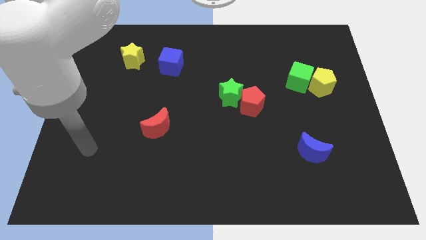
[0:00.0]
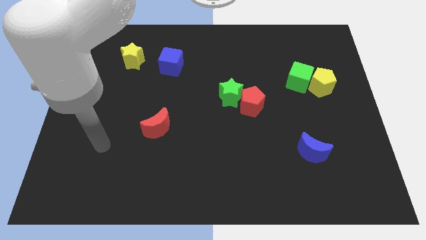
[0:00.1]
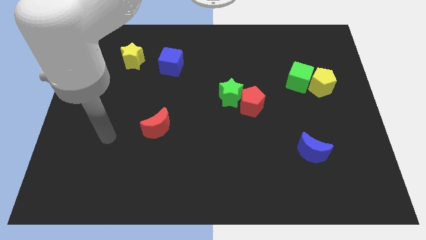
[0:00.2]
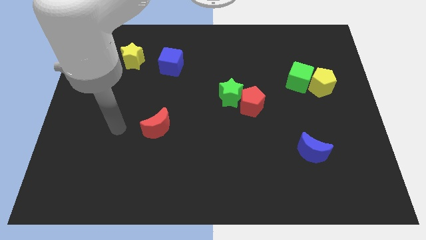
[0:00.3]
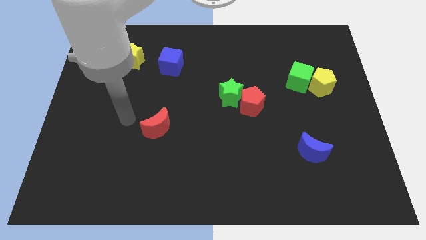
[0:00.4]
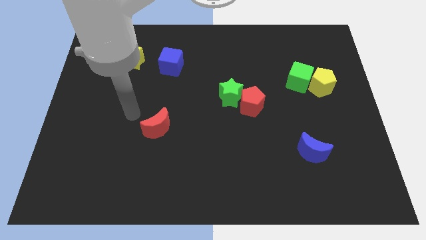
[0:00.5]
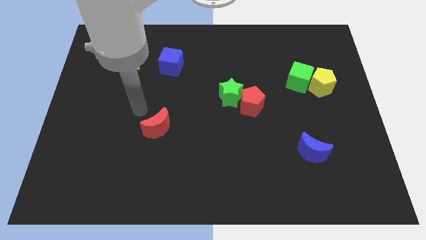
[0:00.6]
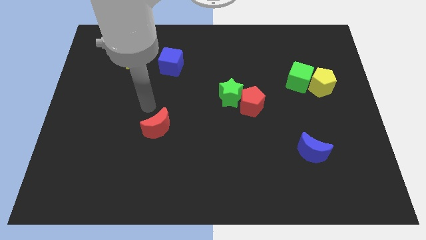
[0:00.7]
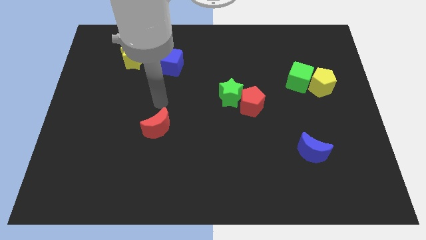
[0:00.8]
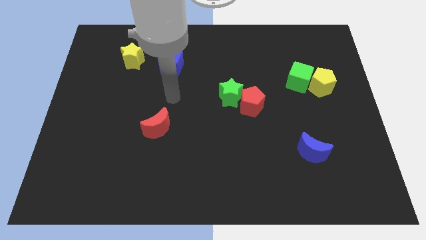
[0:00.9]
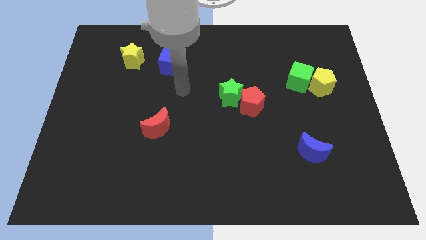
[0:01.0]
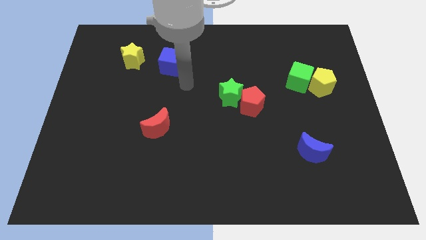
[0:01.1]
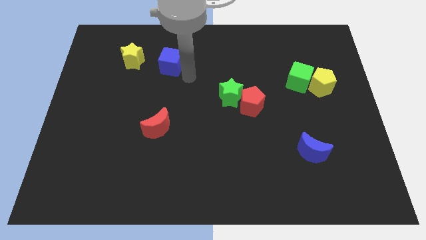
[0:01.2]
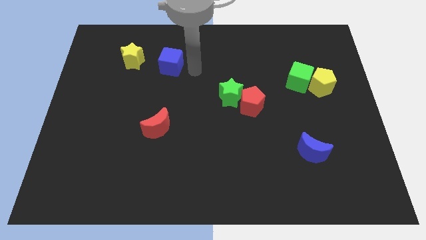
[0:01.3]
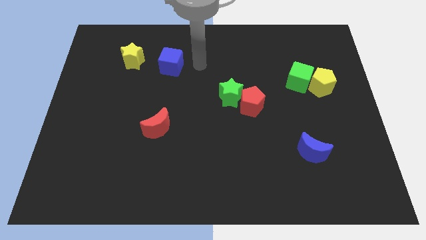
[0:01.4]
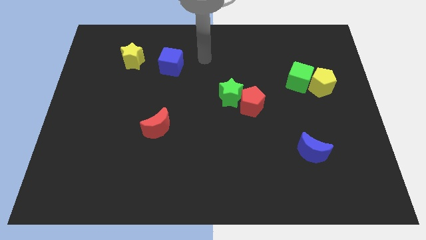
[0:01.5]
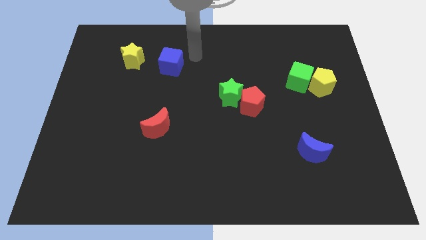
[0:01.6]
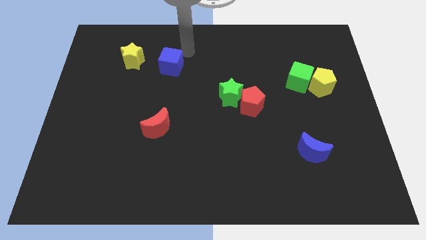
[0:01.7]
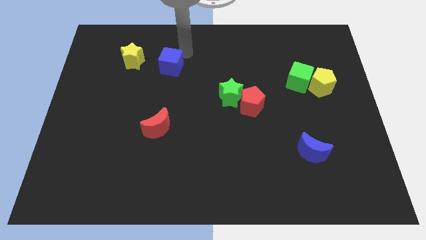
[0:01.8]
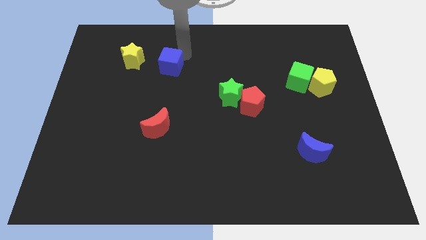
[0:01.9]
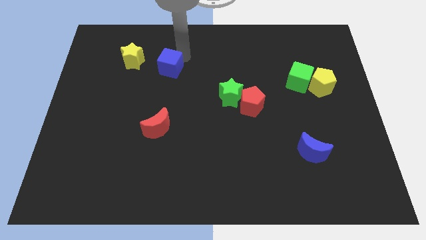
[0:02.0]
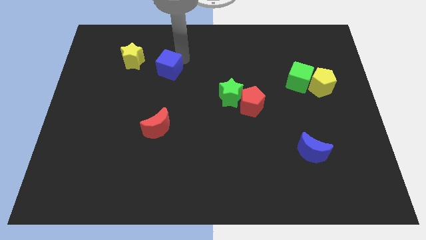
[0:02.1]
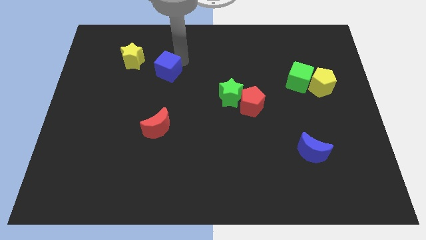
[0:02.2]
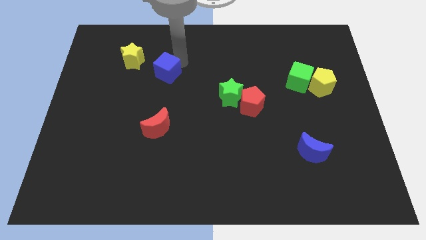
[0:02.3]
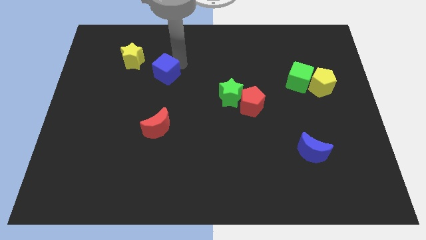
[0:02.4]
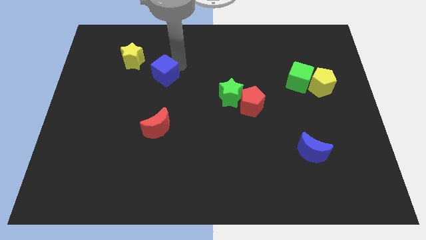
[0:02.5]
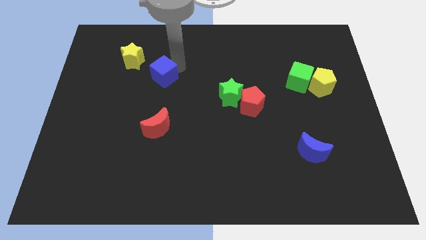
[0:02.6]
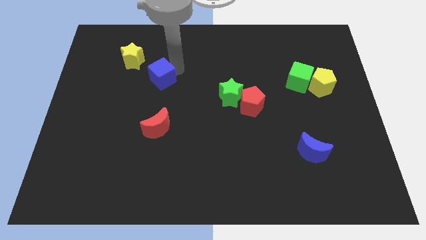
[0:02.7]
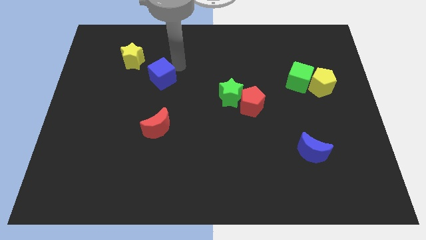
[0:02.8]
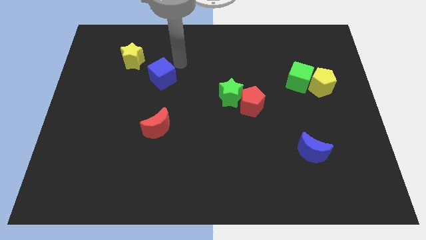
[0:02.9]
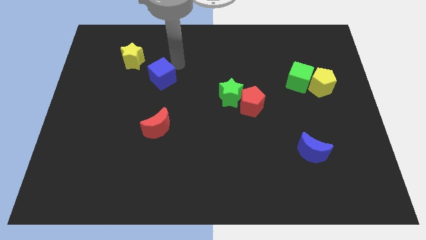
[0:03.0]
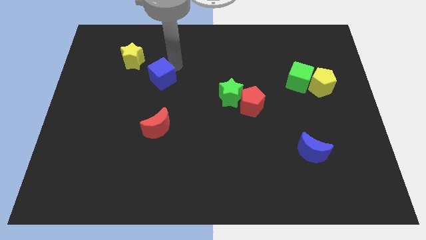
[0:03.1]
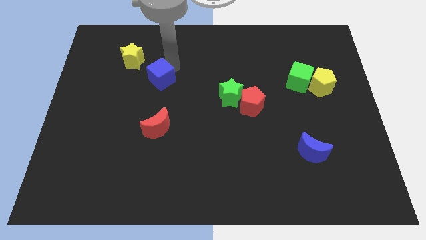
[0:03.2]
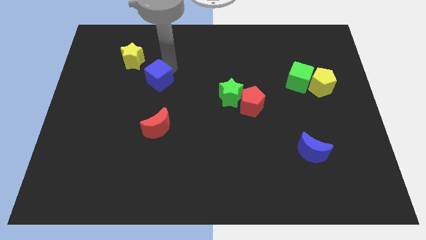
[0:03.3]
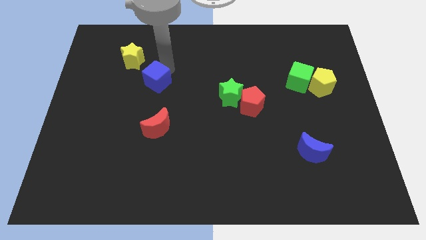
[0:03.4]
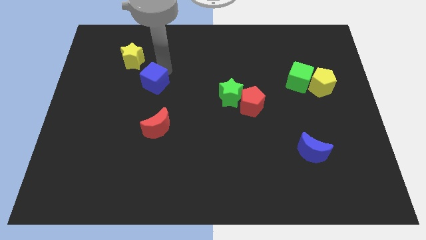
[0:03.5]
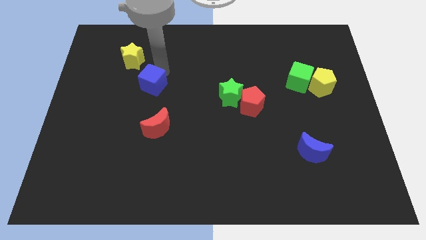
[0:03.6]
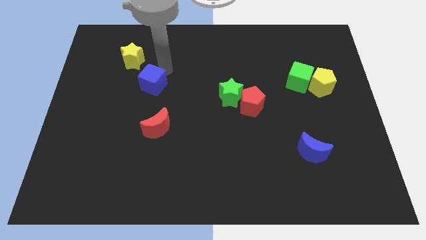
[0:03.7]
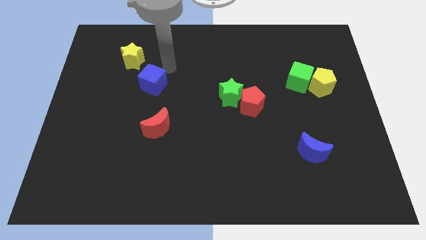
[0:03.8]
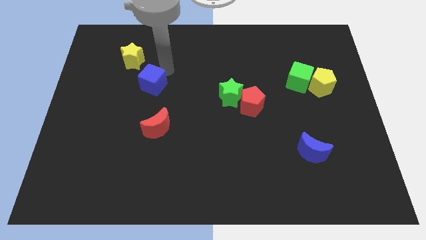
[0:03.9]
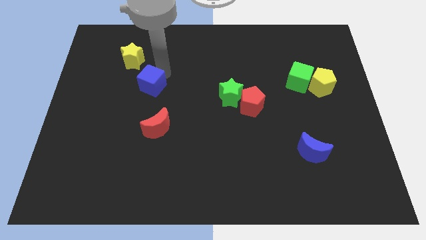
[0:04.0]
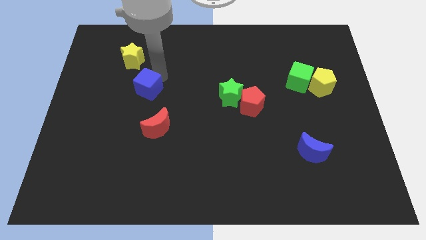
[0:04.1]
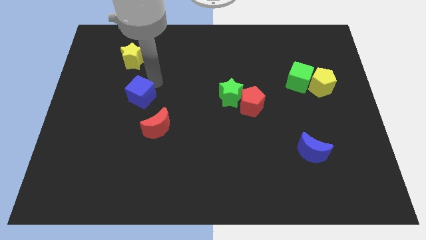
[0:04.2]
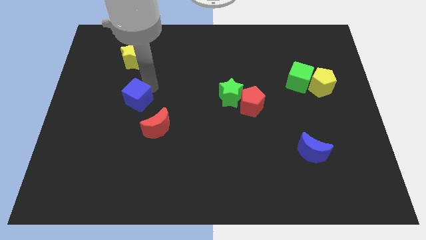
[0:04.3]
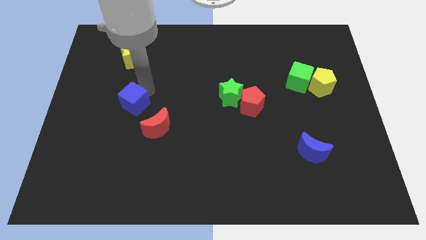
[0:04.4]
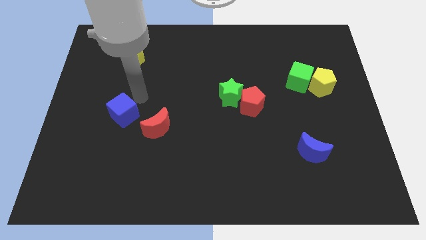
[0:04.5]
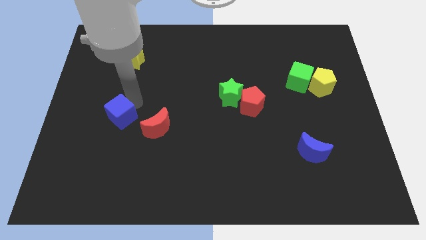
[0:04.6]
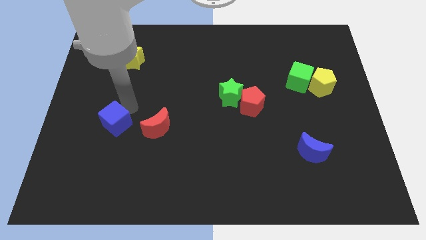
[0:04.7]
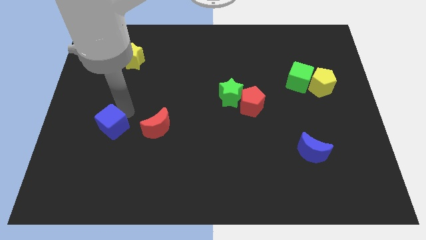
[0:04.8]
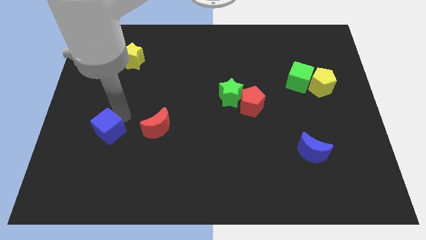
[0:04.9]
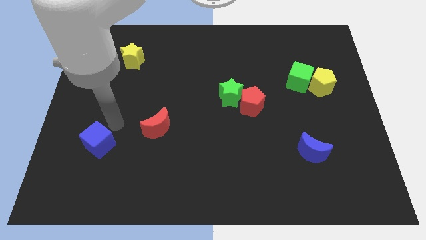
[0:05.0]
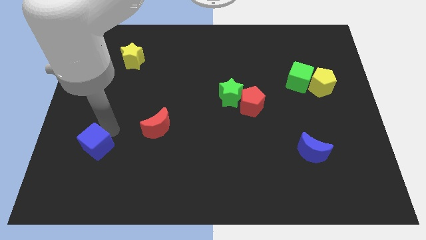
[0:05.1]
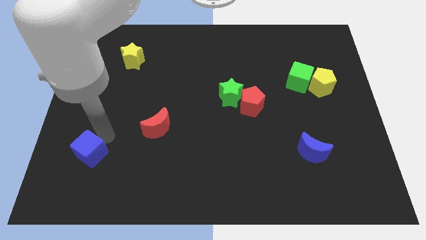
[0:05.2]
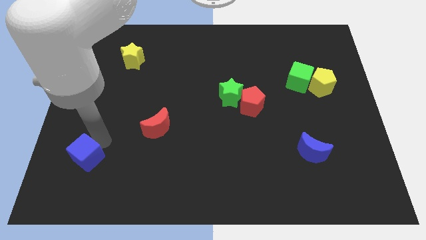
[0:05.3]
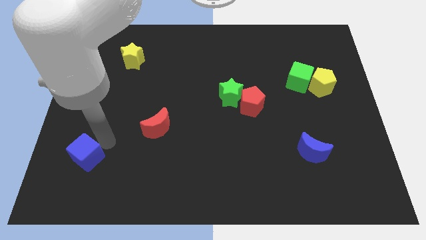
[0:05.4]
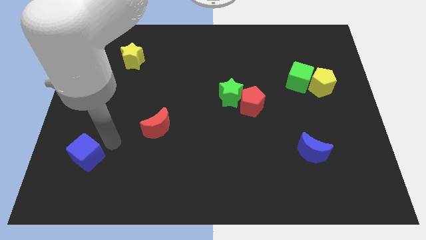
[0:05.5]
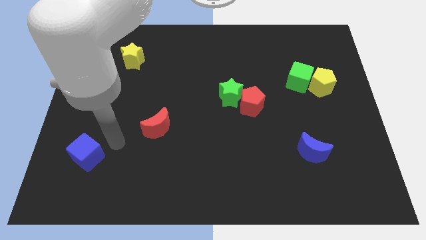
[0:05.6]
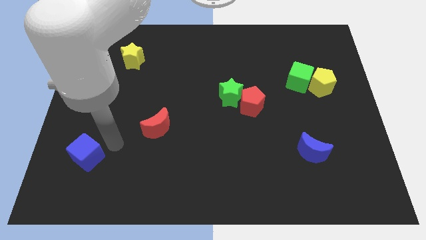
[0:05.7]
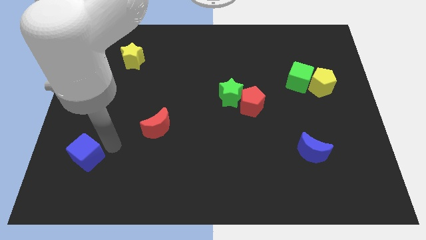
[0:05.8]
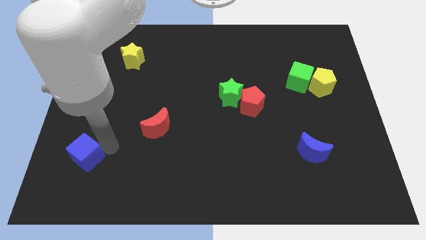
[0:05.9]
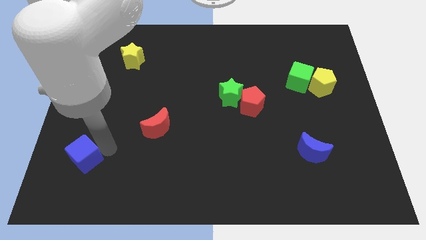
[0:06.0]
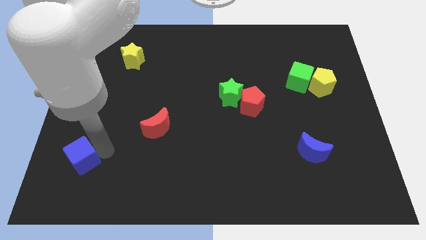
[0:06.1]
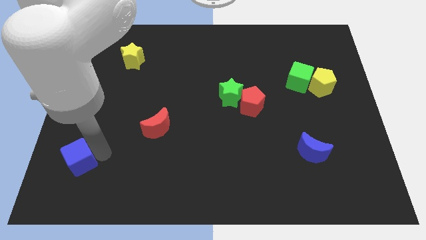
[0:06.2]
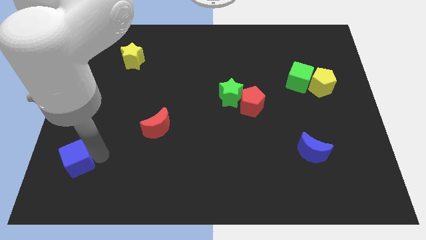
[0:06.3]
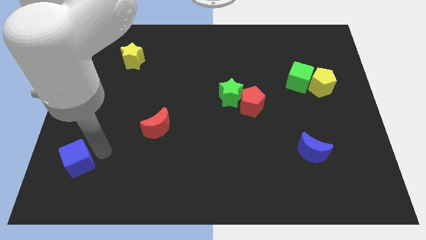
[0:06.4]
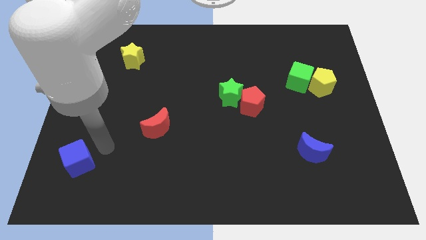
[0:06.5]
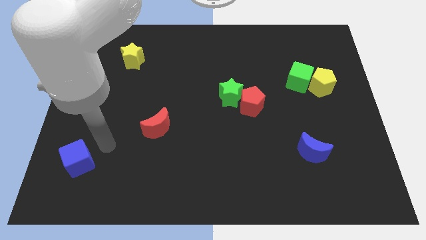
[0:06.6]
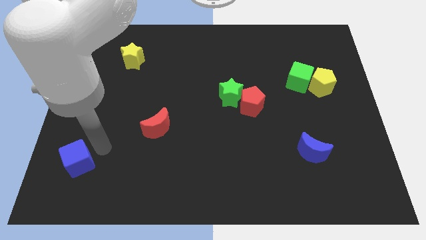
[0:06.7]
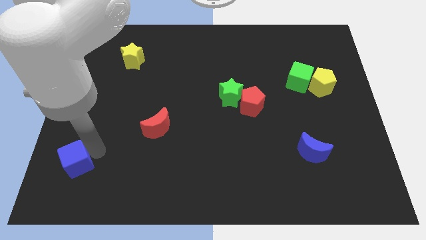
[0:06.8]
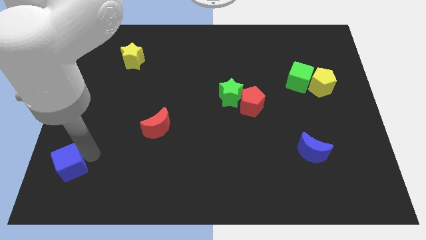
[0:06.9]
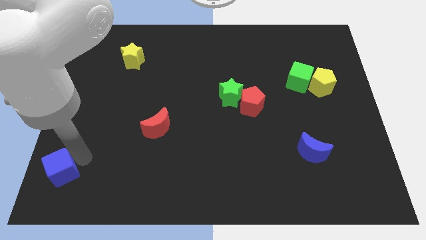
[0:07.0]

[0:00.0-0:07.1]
slide the blue cube to the bottom left corner
